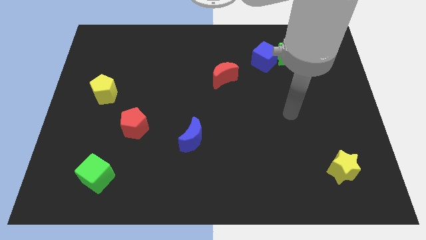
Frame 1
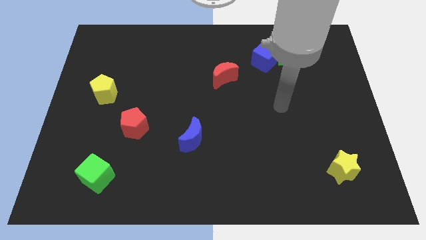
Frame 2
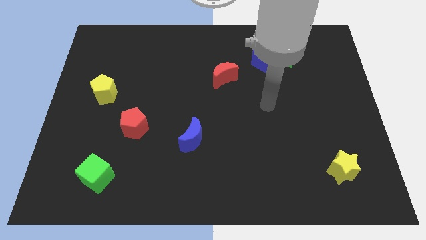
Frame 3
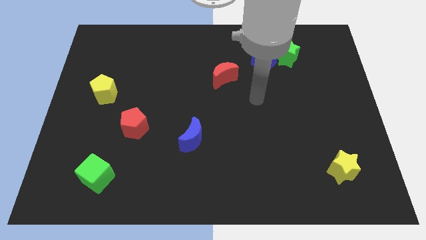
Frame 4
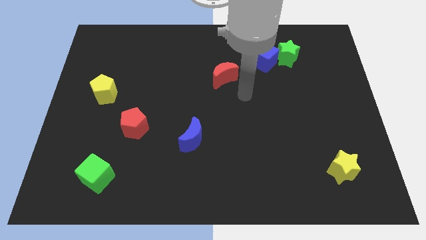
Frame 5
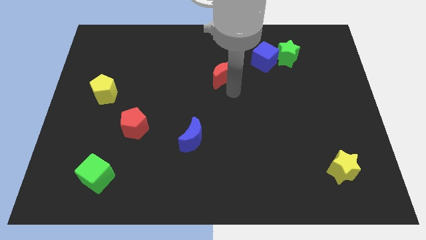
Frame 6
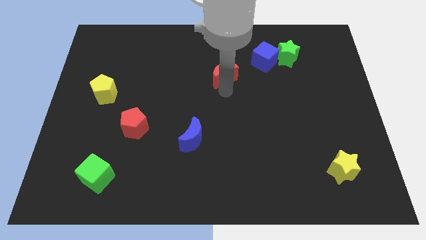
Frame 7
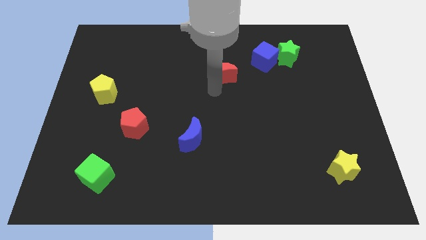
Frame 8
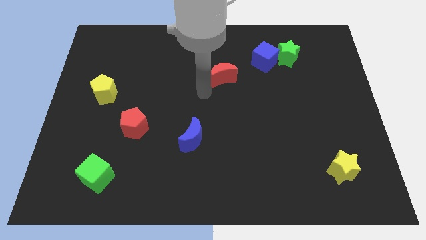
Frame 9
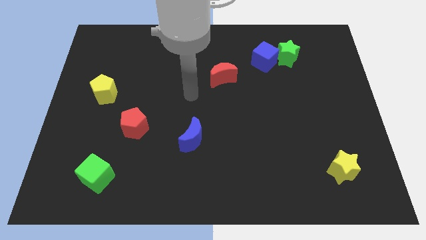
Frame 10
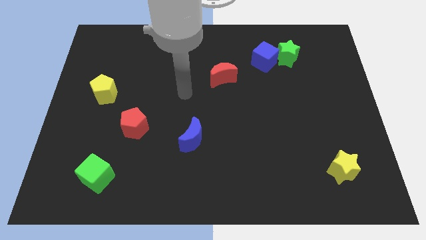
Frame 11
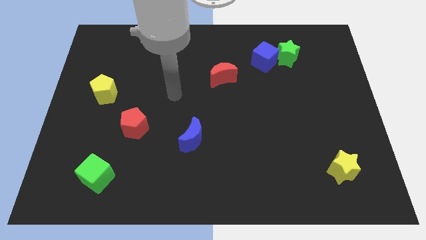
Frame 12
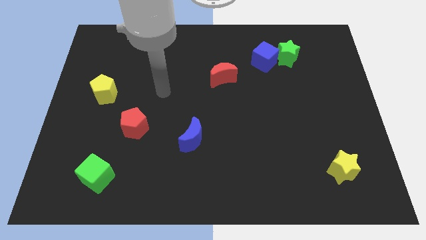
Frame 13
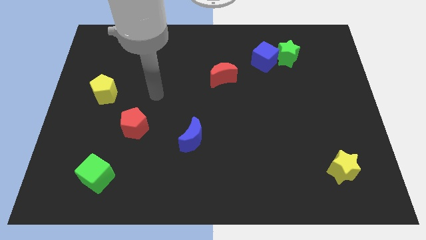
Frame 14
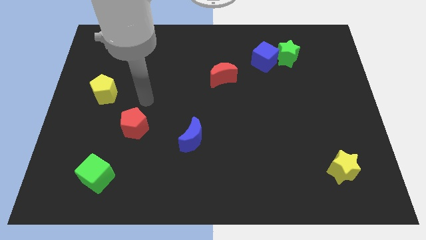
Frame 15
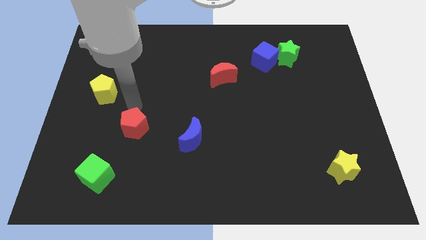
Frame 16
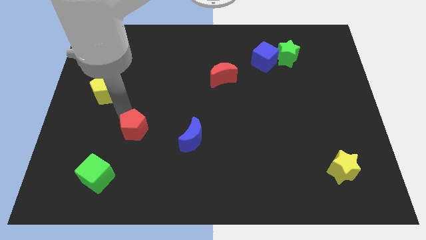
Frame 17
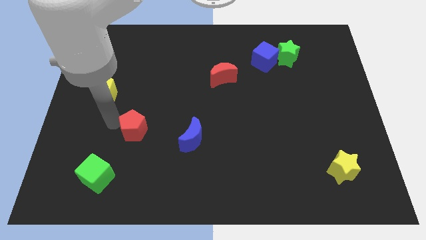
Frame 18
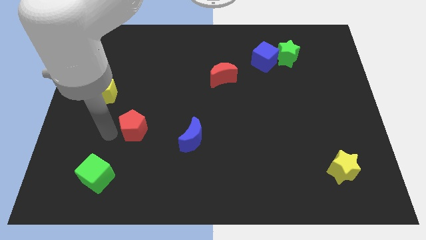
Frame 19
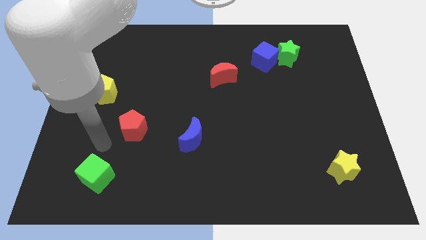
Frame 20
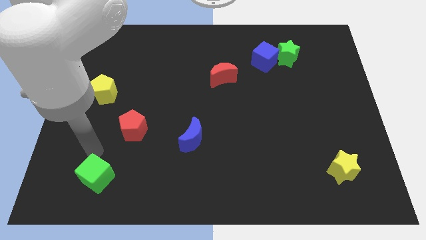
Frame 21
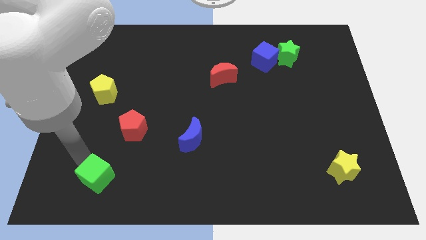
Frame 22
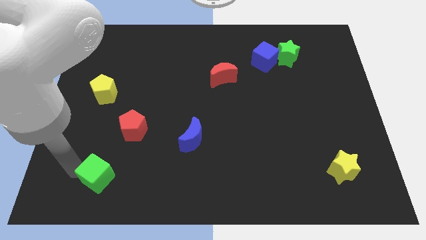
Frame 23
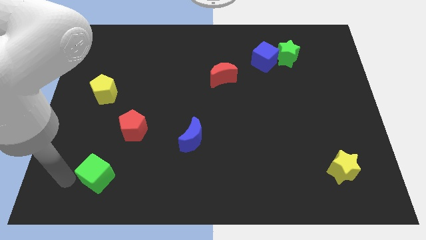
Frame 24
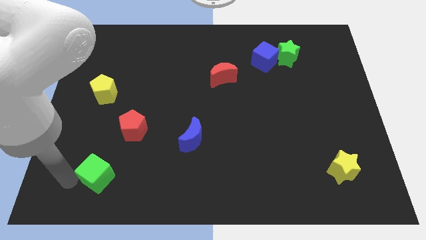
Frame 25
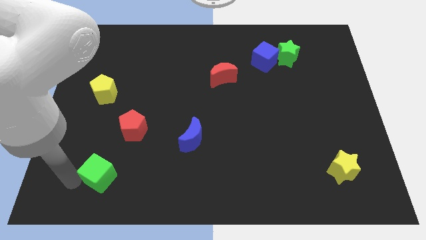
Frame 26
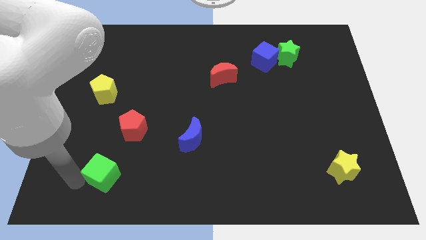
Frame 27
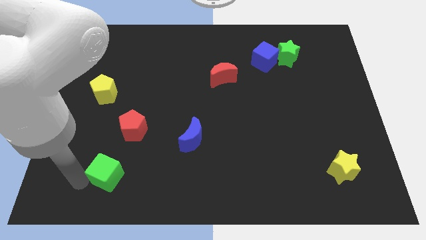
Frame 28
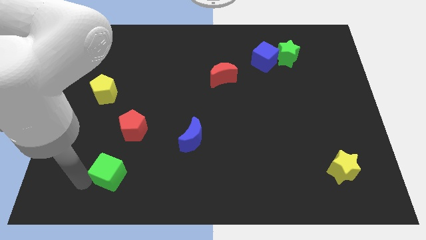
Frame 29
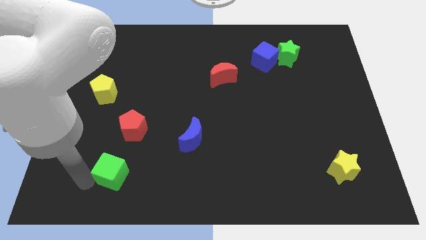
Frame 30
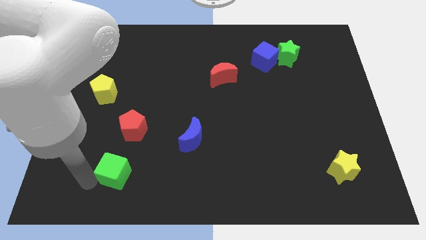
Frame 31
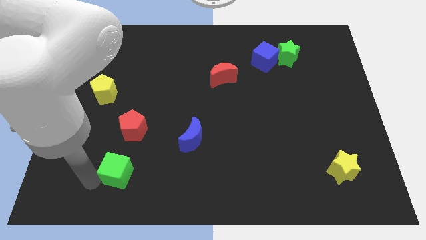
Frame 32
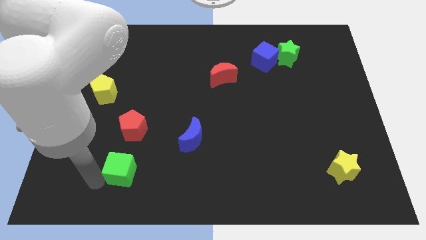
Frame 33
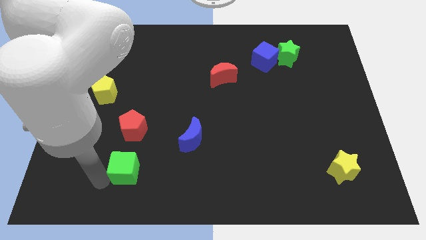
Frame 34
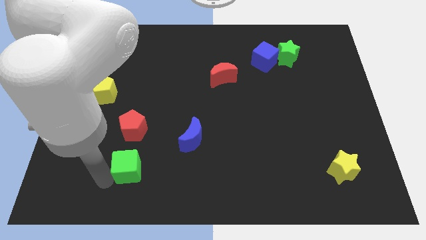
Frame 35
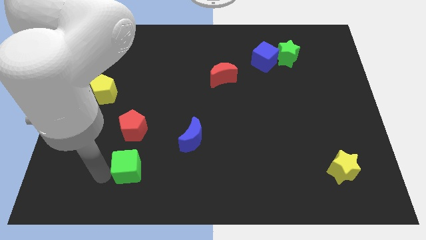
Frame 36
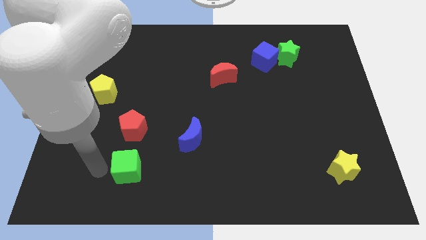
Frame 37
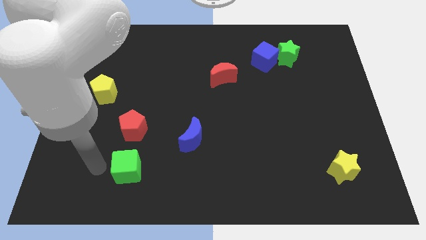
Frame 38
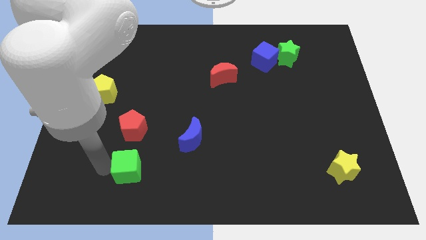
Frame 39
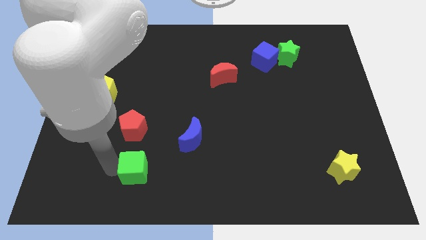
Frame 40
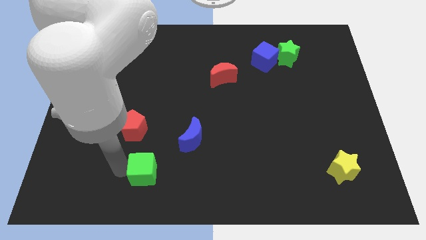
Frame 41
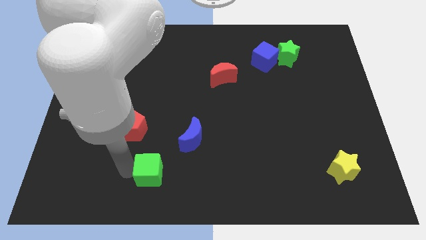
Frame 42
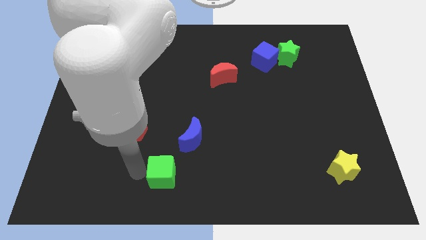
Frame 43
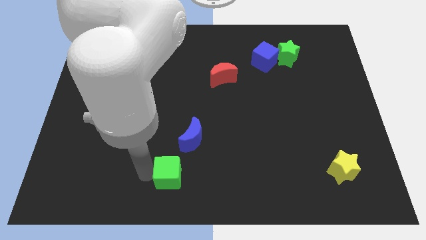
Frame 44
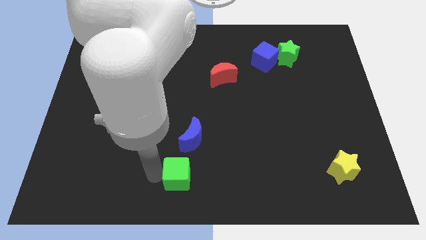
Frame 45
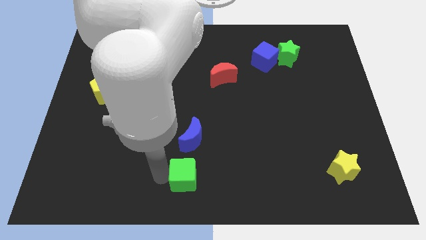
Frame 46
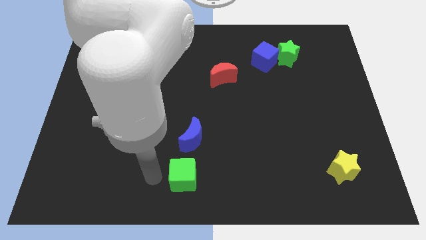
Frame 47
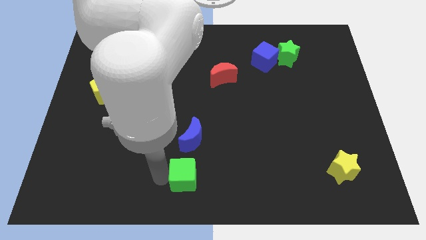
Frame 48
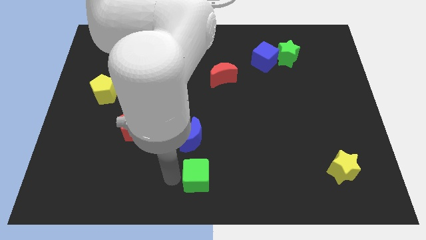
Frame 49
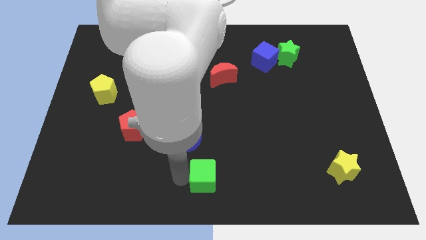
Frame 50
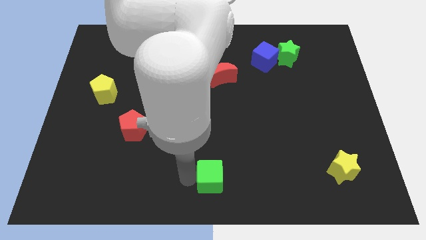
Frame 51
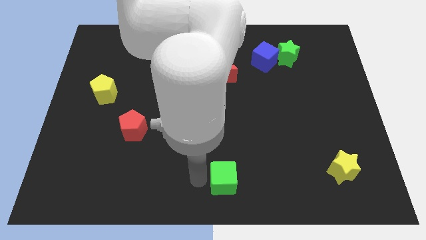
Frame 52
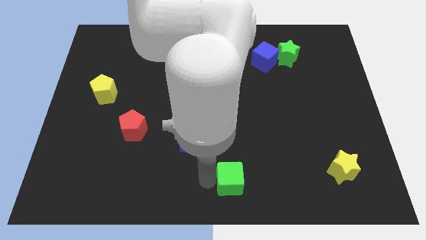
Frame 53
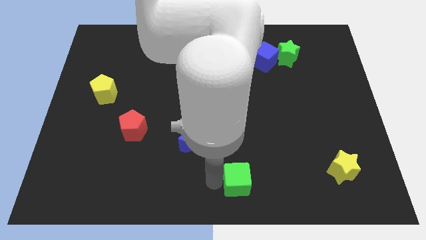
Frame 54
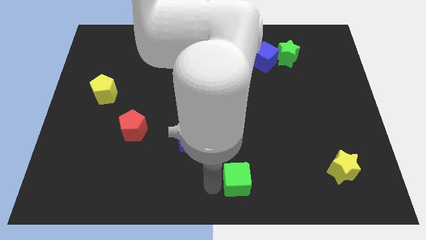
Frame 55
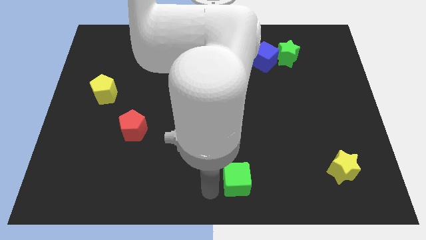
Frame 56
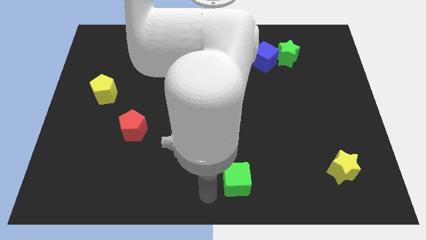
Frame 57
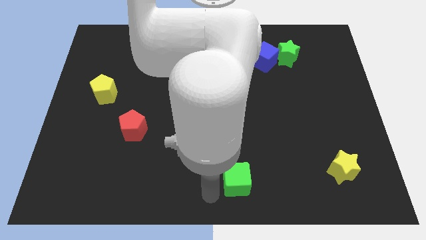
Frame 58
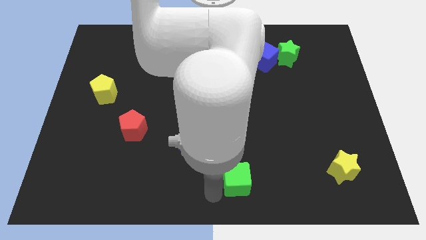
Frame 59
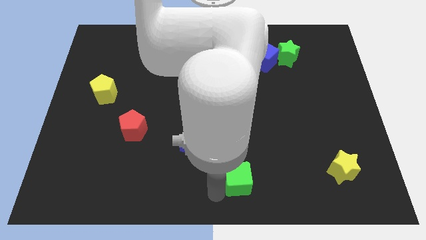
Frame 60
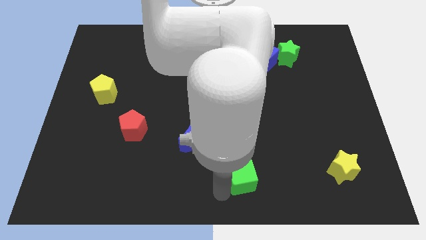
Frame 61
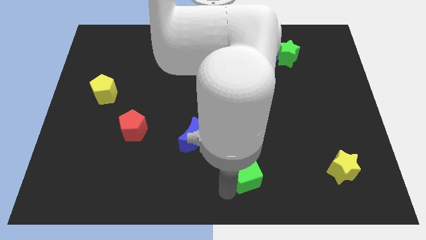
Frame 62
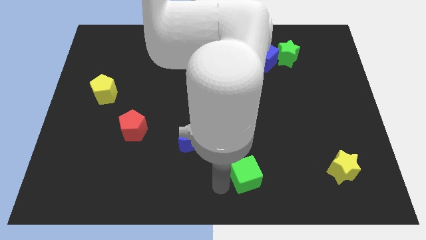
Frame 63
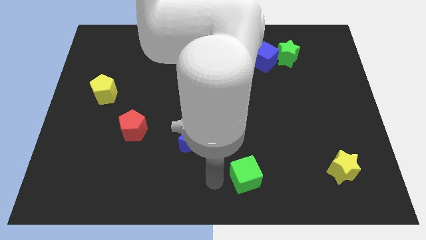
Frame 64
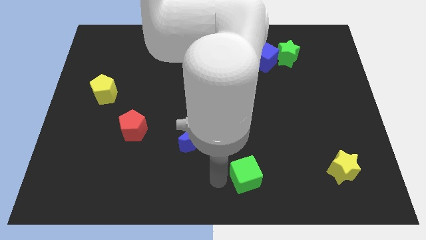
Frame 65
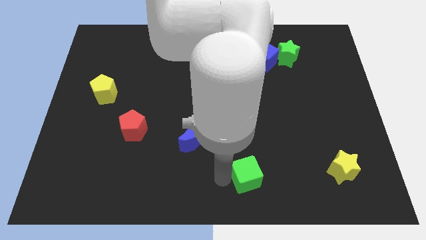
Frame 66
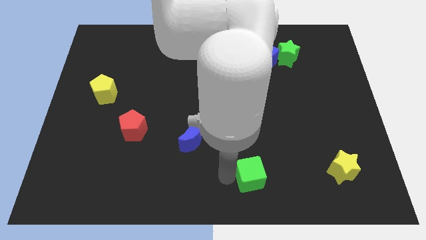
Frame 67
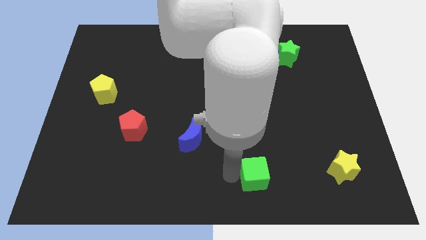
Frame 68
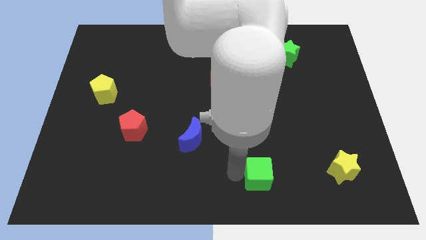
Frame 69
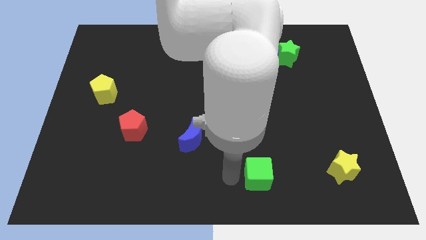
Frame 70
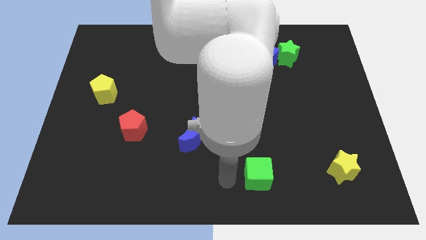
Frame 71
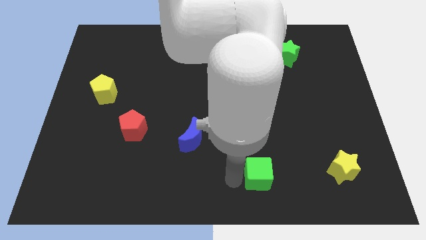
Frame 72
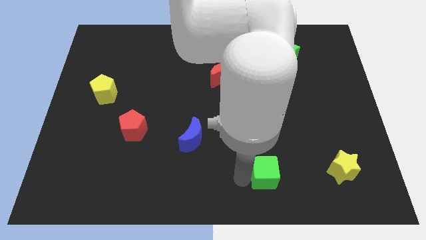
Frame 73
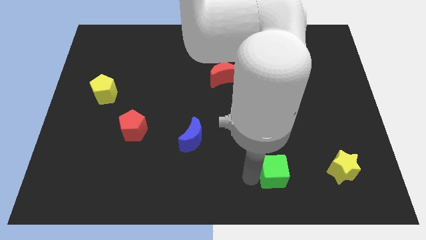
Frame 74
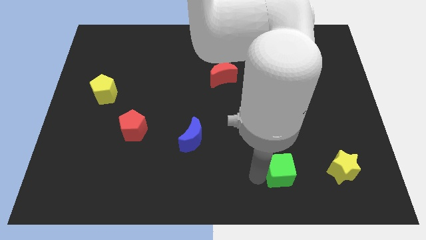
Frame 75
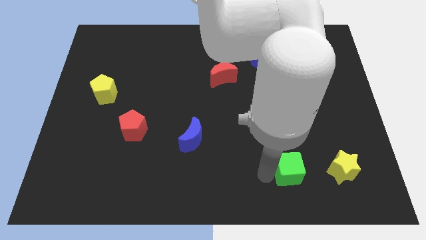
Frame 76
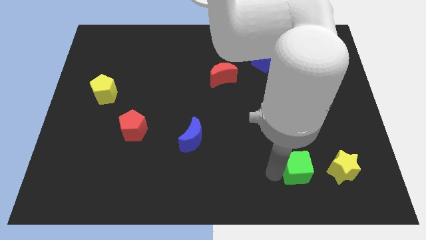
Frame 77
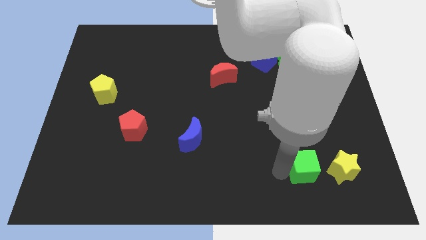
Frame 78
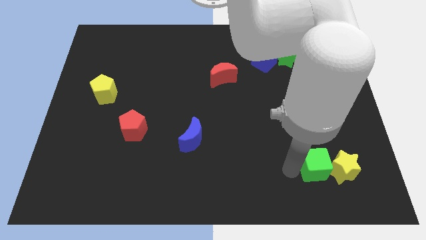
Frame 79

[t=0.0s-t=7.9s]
push the green cube towards the yellow star
